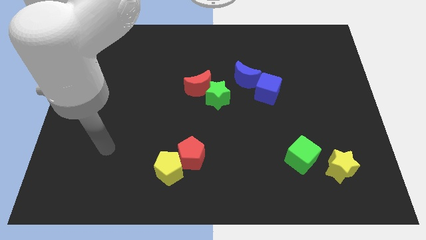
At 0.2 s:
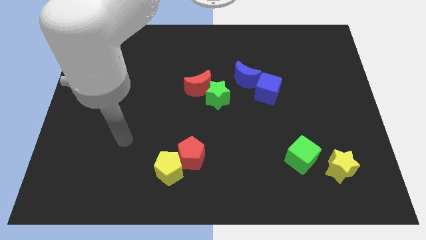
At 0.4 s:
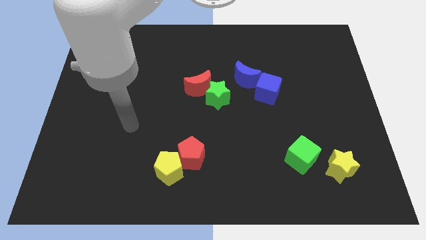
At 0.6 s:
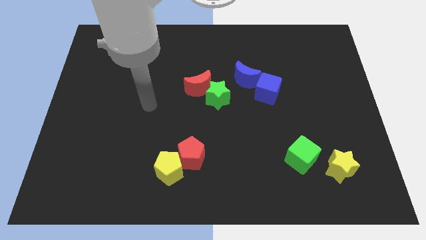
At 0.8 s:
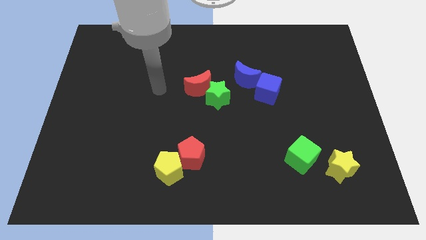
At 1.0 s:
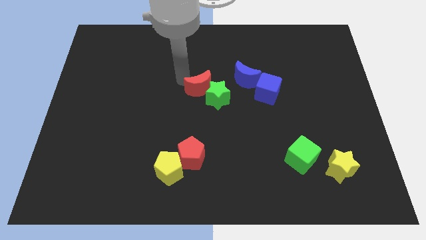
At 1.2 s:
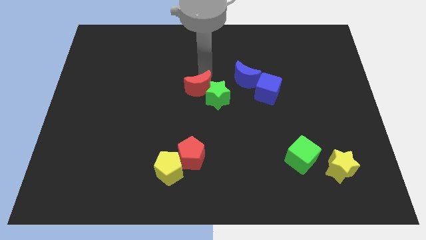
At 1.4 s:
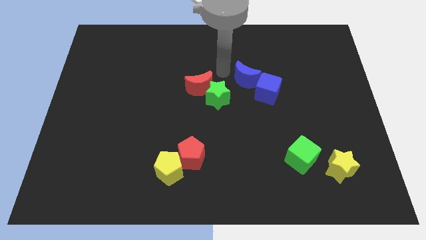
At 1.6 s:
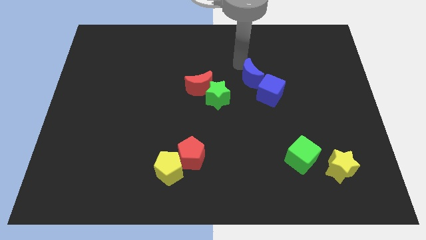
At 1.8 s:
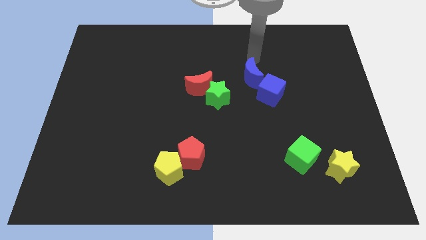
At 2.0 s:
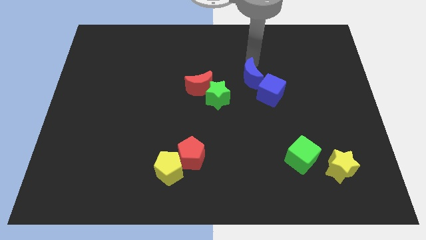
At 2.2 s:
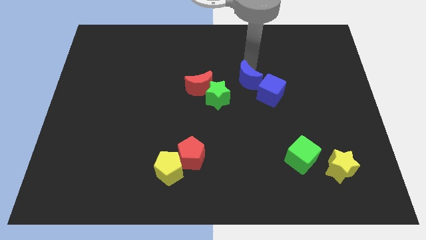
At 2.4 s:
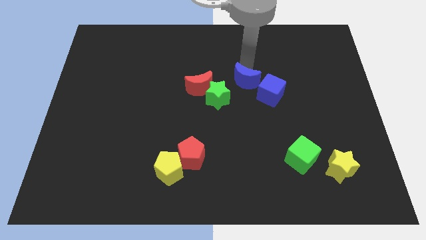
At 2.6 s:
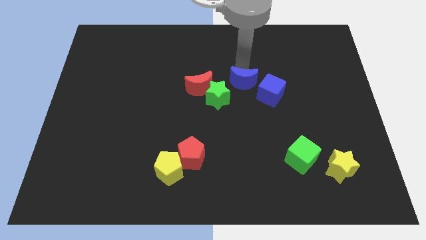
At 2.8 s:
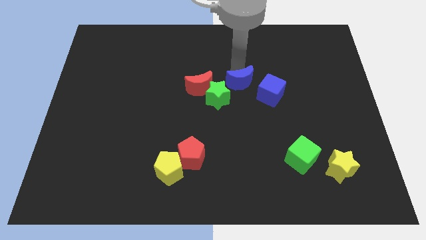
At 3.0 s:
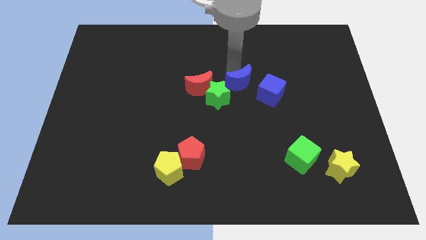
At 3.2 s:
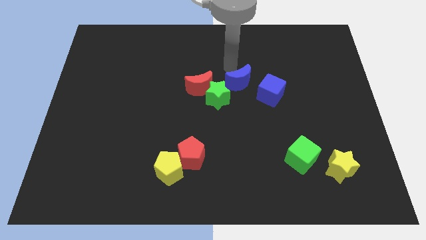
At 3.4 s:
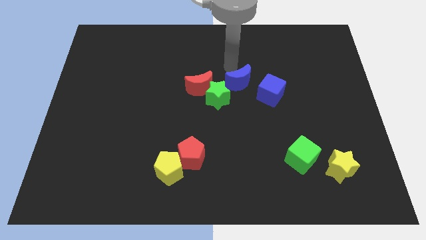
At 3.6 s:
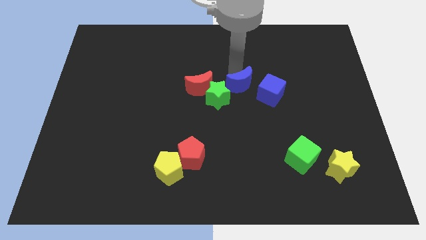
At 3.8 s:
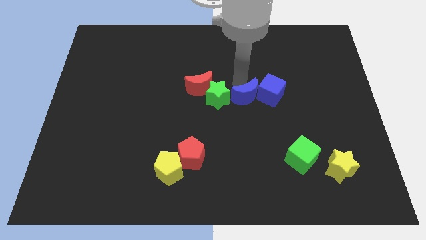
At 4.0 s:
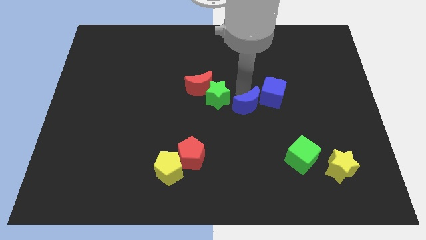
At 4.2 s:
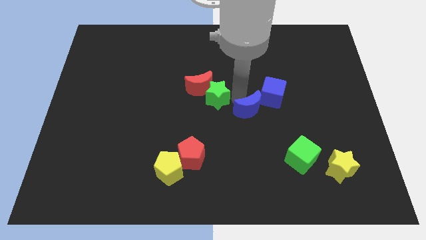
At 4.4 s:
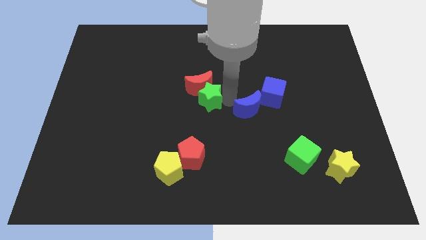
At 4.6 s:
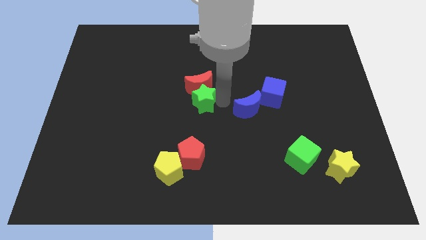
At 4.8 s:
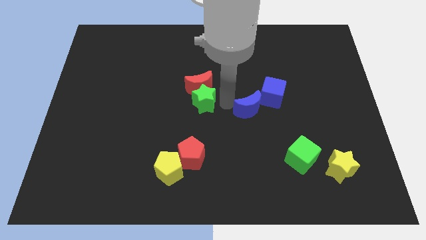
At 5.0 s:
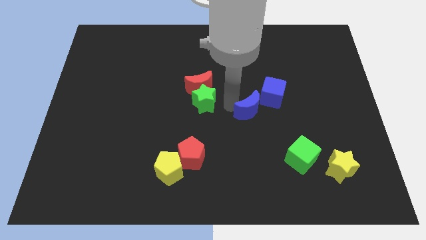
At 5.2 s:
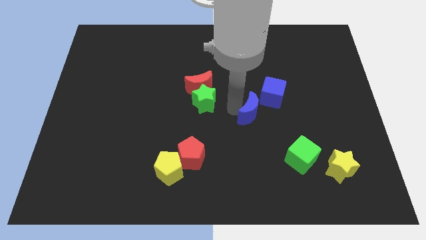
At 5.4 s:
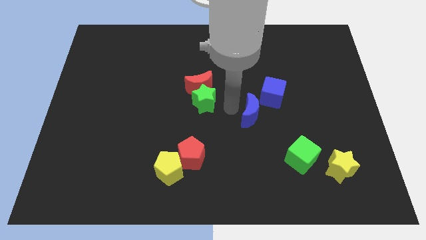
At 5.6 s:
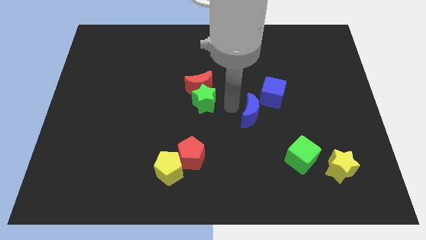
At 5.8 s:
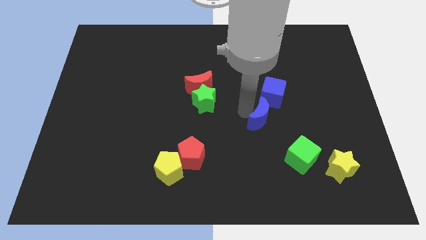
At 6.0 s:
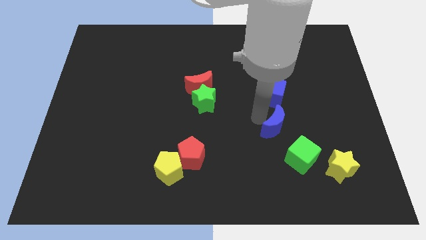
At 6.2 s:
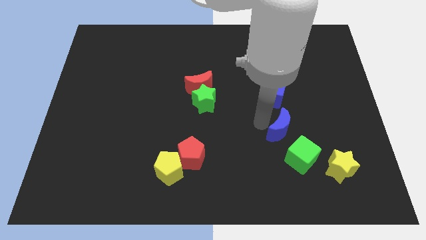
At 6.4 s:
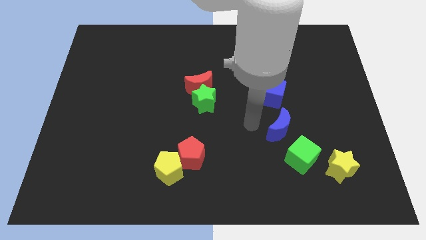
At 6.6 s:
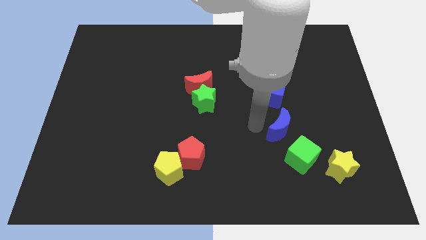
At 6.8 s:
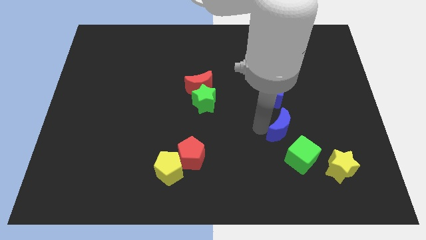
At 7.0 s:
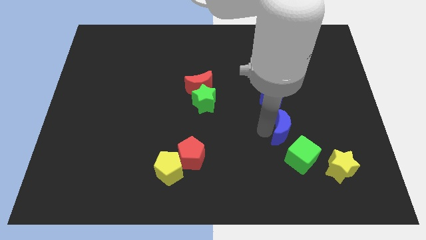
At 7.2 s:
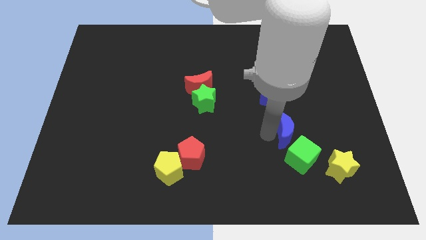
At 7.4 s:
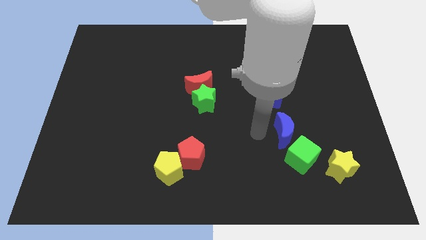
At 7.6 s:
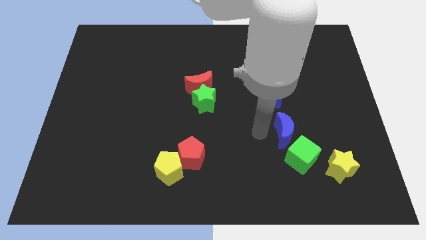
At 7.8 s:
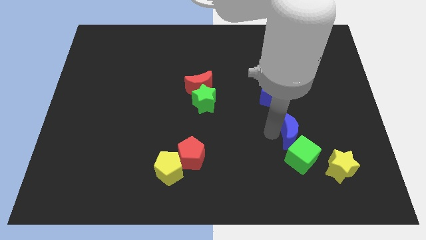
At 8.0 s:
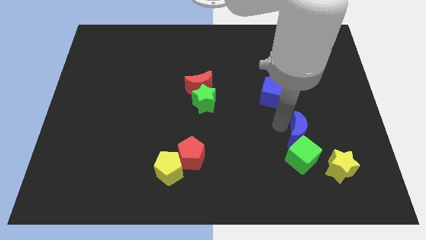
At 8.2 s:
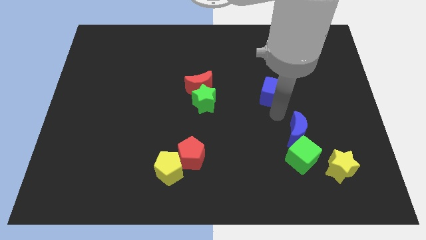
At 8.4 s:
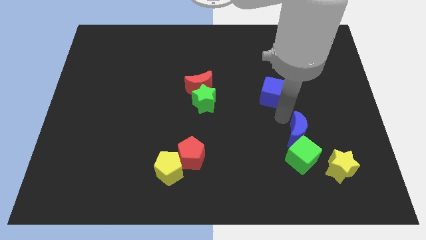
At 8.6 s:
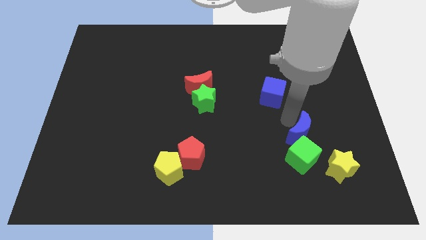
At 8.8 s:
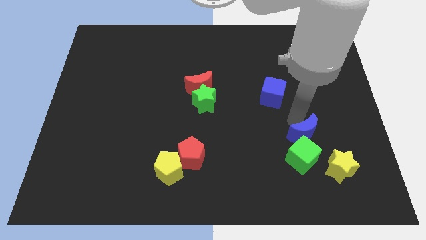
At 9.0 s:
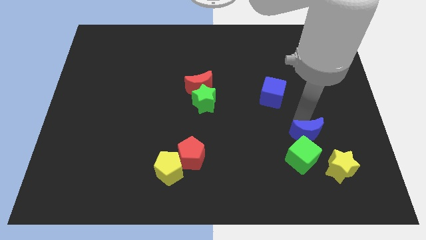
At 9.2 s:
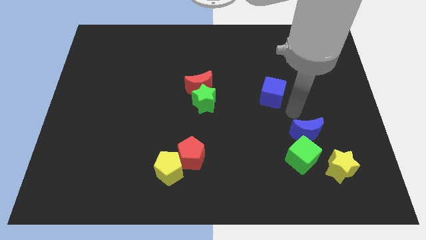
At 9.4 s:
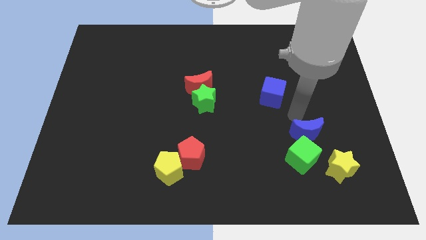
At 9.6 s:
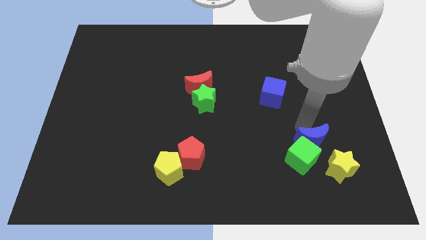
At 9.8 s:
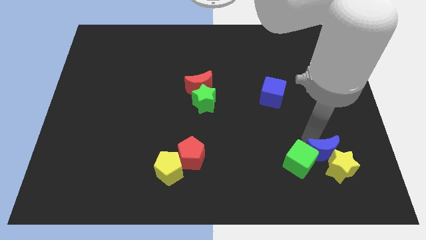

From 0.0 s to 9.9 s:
push the blue moon close to the yellow star

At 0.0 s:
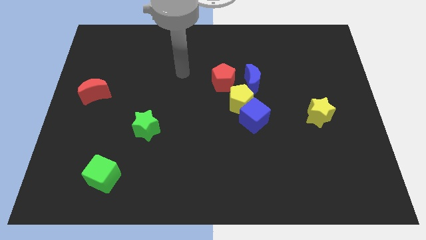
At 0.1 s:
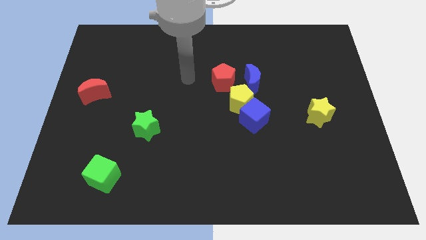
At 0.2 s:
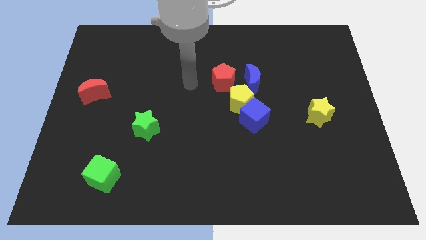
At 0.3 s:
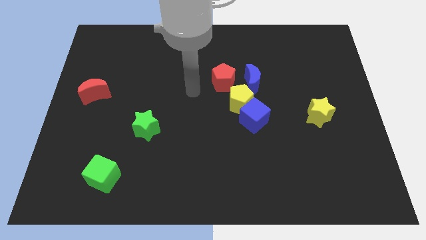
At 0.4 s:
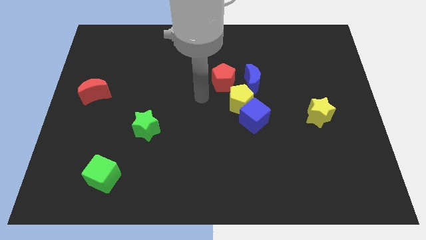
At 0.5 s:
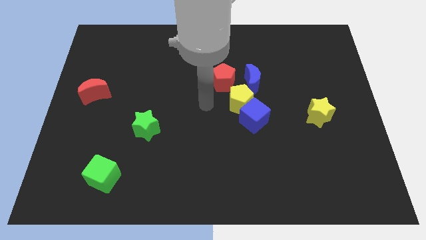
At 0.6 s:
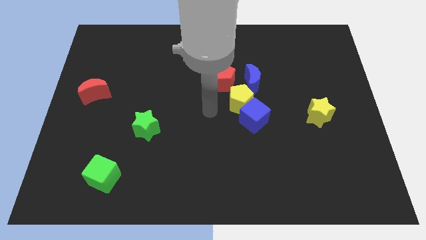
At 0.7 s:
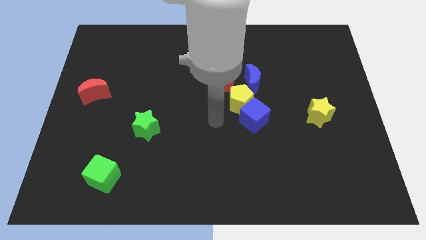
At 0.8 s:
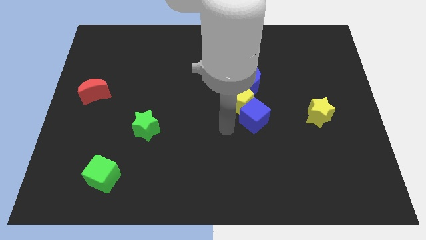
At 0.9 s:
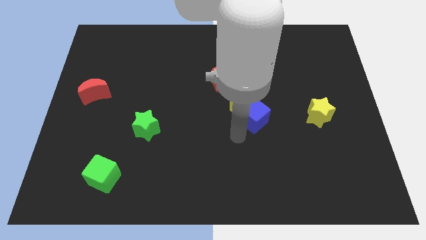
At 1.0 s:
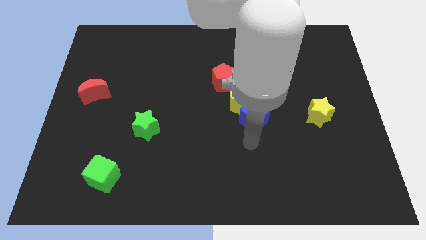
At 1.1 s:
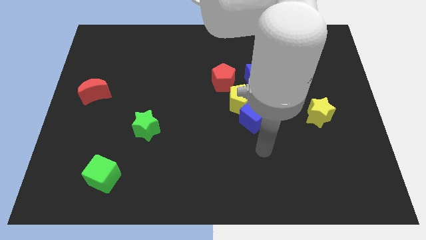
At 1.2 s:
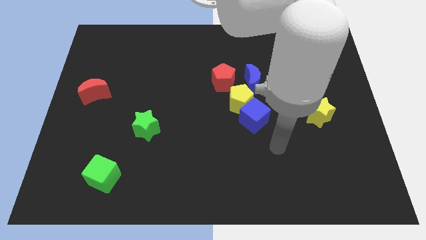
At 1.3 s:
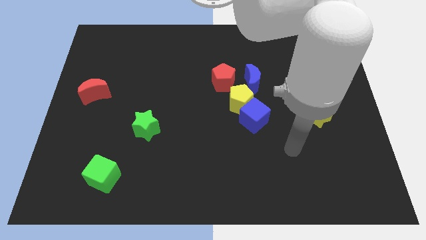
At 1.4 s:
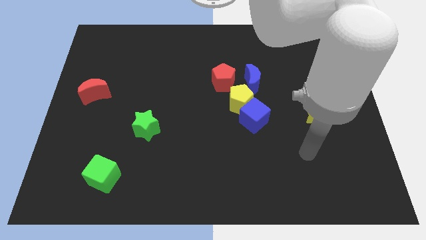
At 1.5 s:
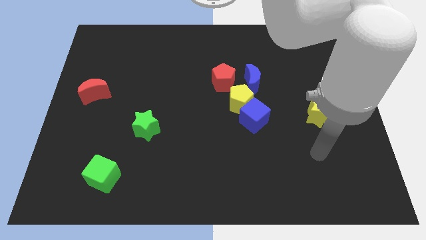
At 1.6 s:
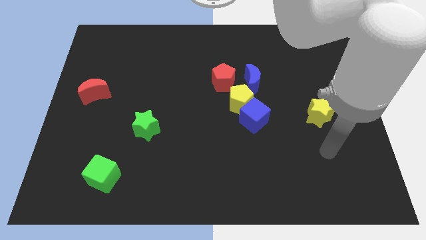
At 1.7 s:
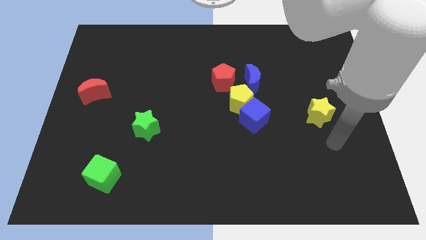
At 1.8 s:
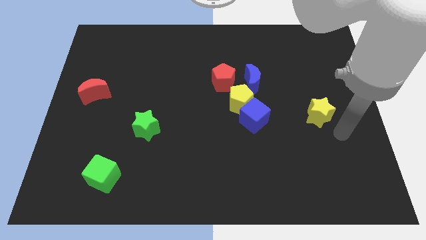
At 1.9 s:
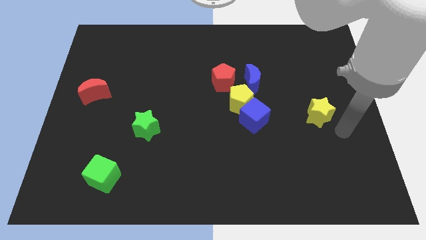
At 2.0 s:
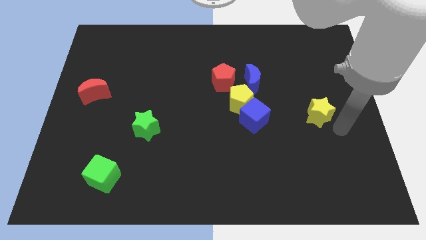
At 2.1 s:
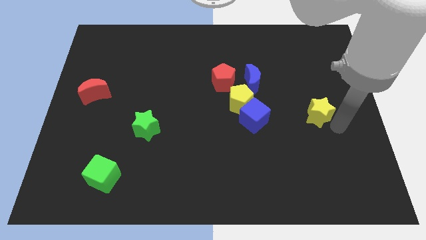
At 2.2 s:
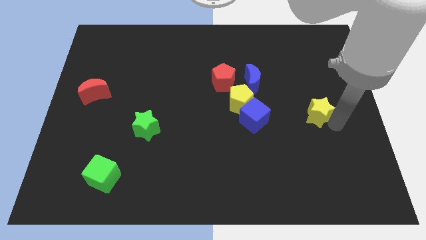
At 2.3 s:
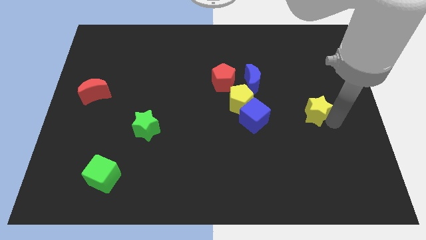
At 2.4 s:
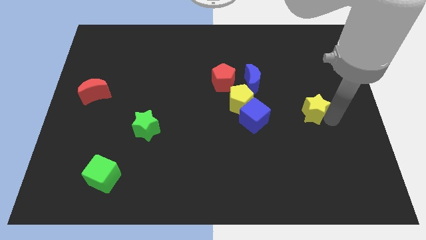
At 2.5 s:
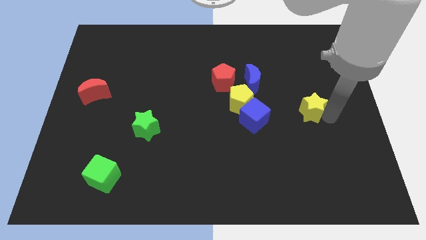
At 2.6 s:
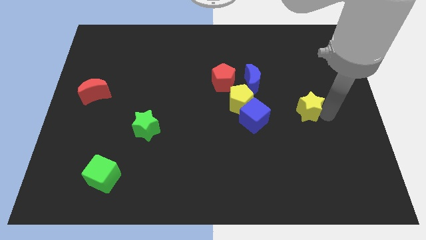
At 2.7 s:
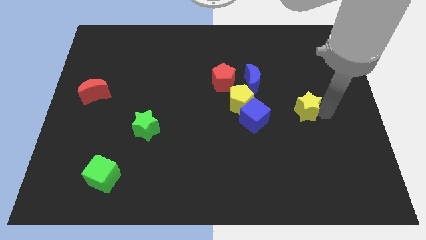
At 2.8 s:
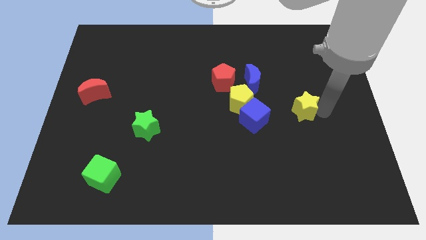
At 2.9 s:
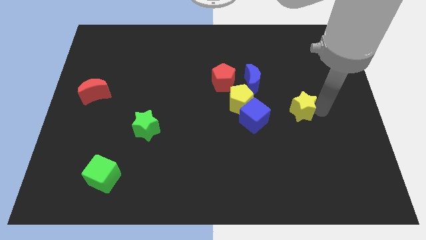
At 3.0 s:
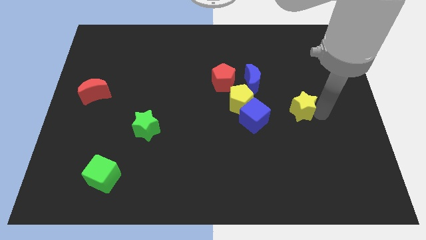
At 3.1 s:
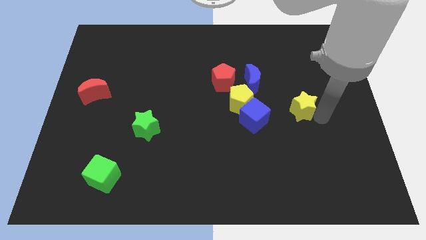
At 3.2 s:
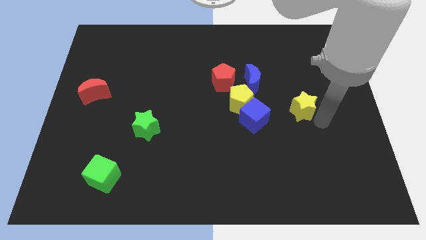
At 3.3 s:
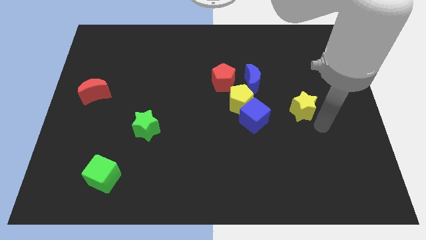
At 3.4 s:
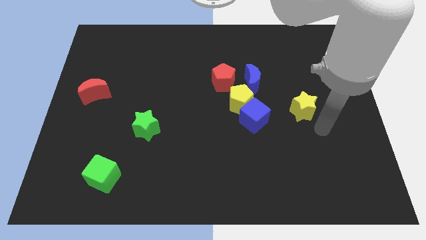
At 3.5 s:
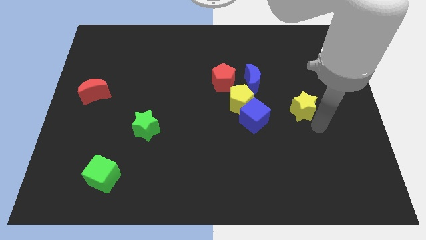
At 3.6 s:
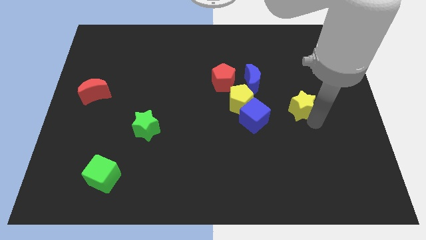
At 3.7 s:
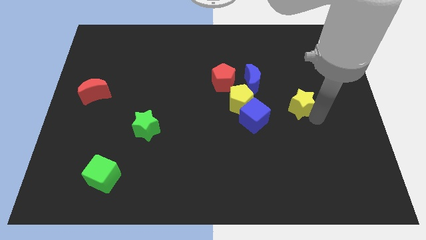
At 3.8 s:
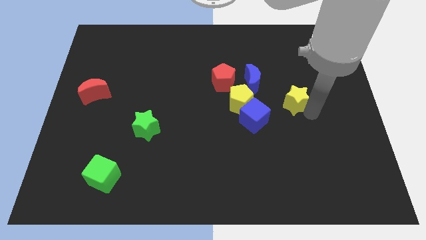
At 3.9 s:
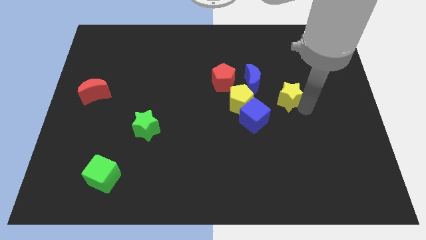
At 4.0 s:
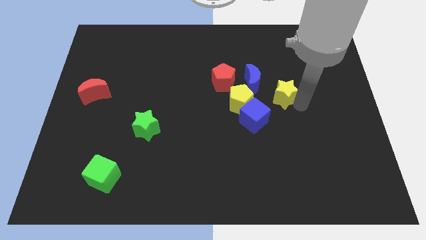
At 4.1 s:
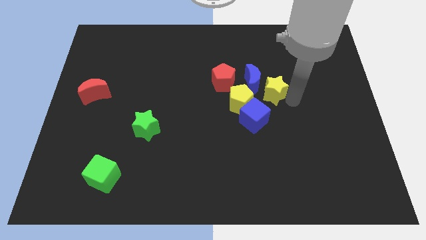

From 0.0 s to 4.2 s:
push the yellow star next to the blue moon
